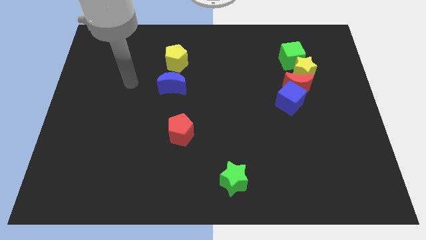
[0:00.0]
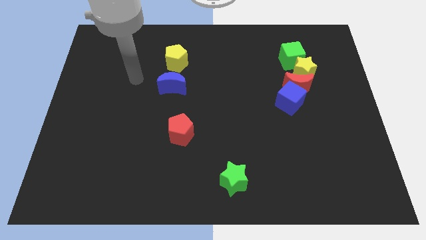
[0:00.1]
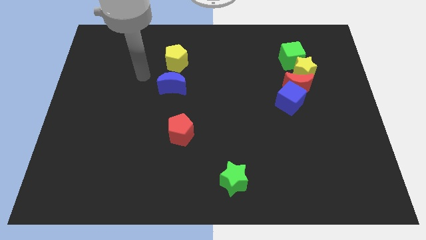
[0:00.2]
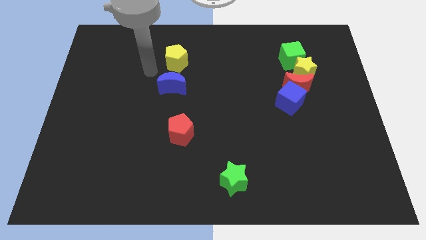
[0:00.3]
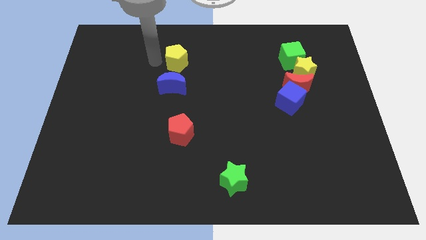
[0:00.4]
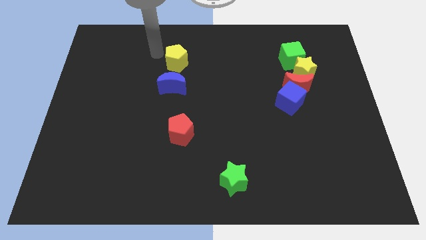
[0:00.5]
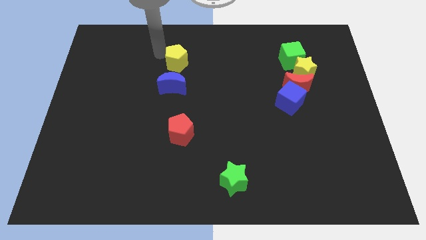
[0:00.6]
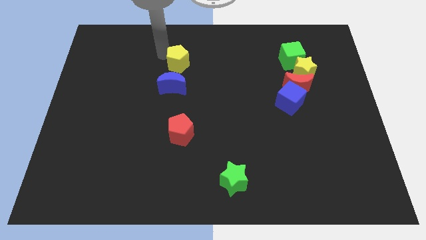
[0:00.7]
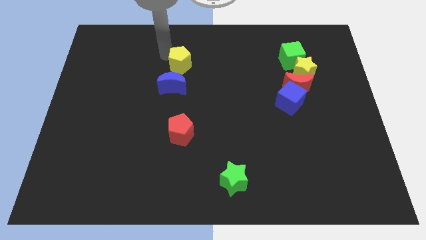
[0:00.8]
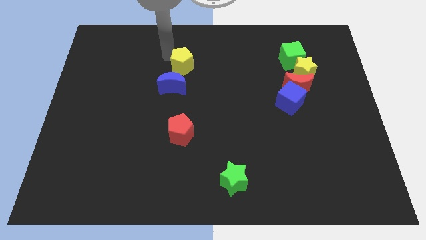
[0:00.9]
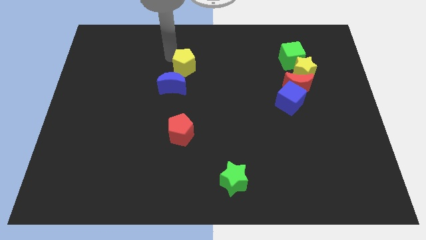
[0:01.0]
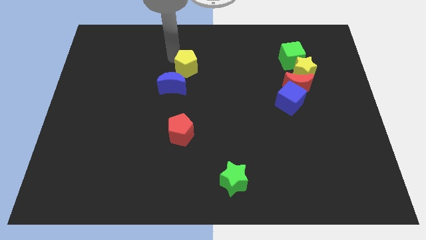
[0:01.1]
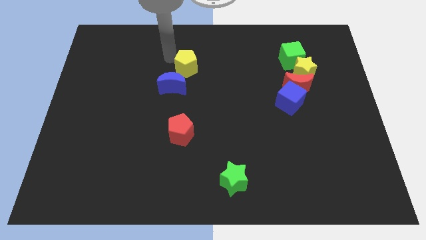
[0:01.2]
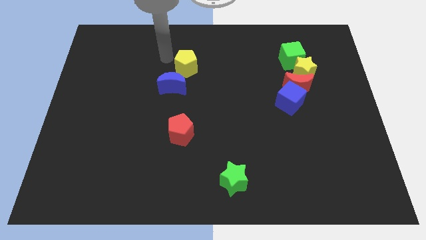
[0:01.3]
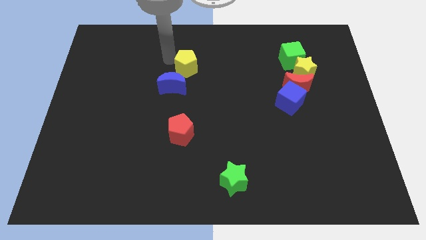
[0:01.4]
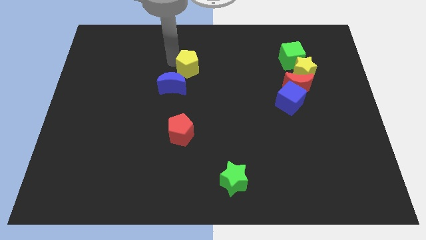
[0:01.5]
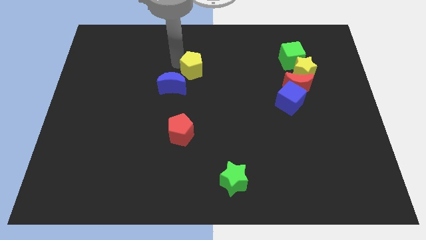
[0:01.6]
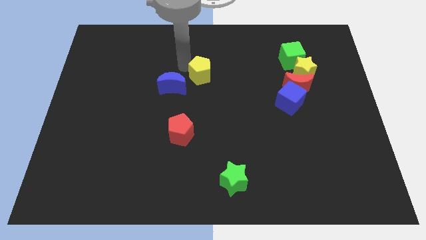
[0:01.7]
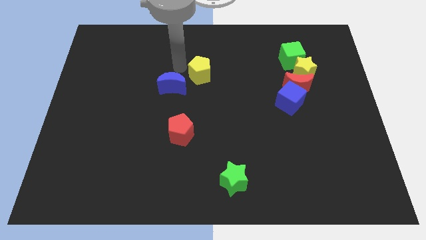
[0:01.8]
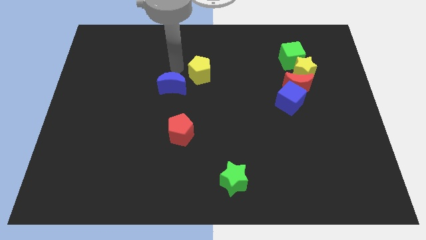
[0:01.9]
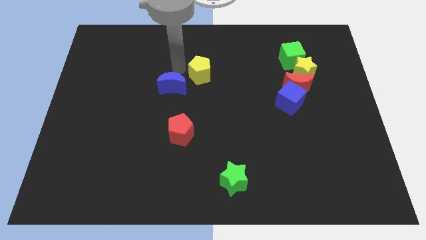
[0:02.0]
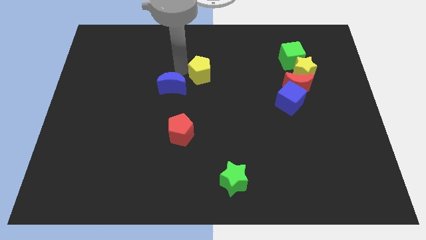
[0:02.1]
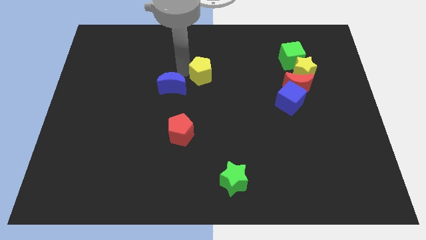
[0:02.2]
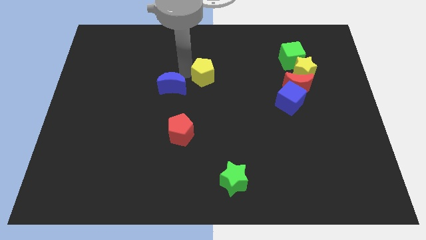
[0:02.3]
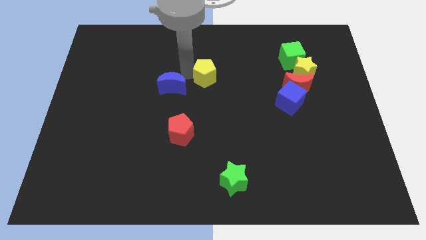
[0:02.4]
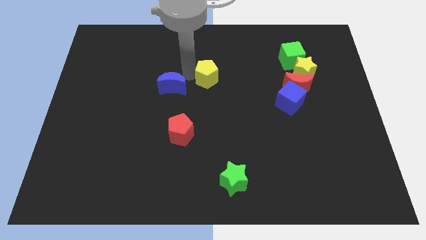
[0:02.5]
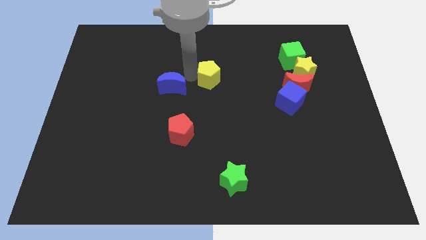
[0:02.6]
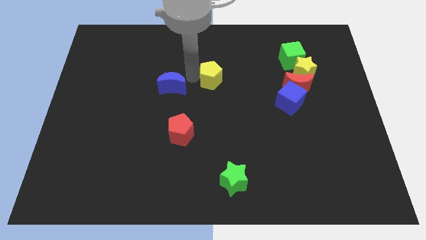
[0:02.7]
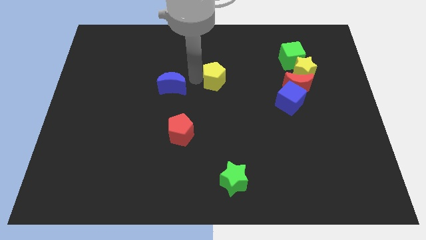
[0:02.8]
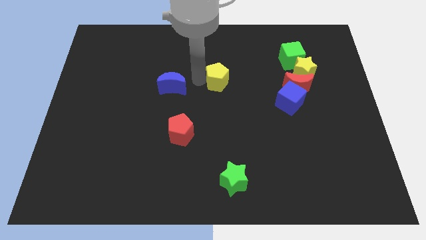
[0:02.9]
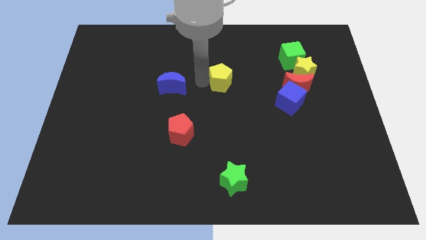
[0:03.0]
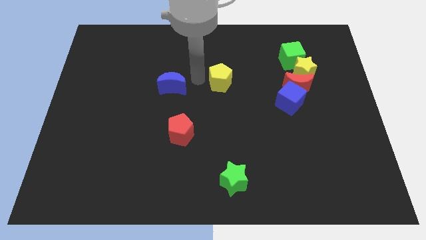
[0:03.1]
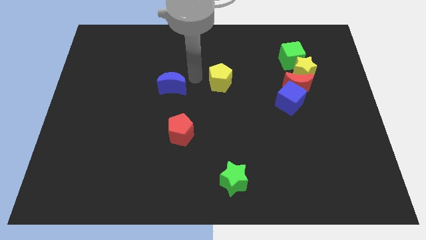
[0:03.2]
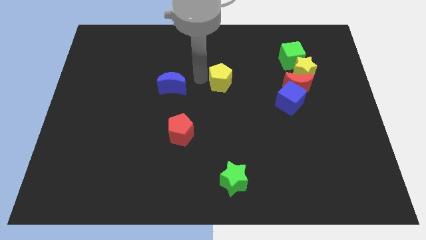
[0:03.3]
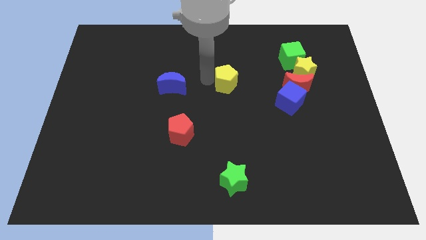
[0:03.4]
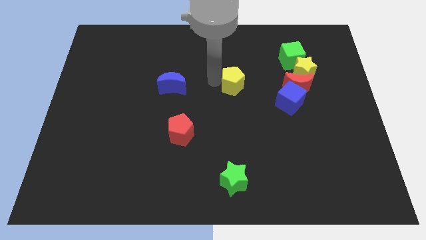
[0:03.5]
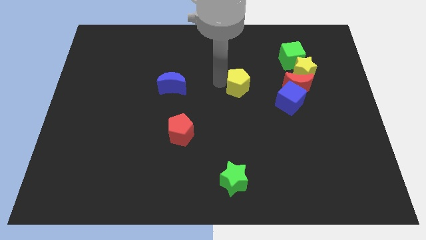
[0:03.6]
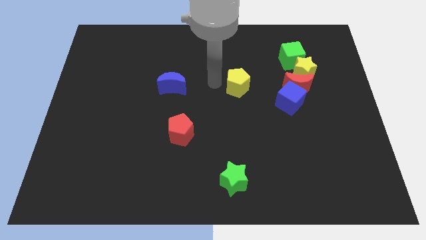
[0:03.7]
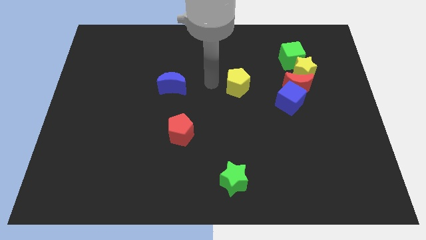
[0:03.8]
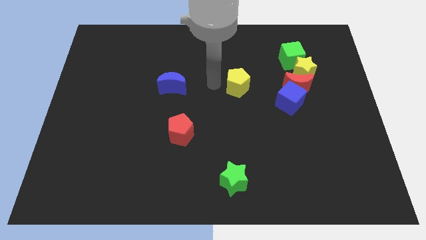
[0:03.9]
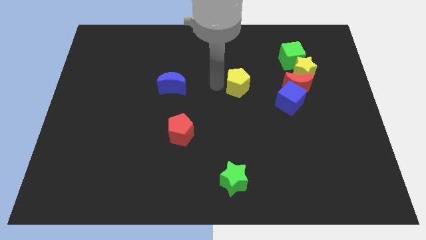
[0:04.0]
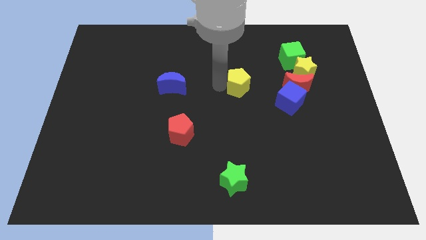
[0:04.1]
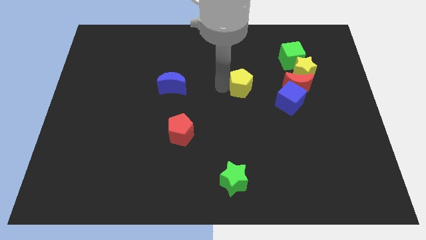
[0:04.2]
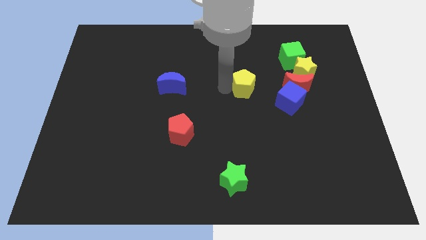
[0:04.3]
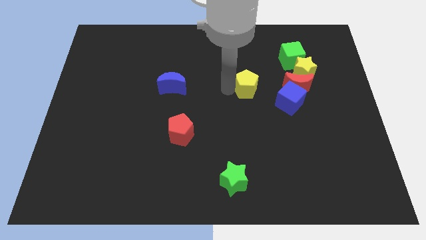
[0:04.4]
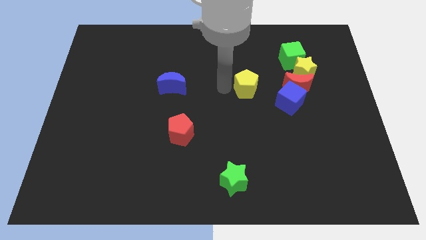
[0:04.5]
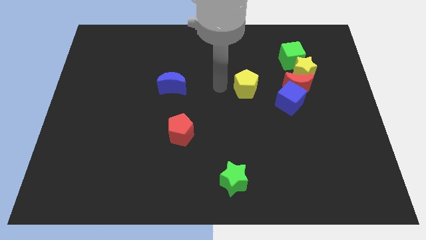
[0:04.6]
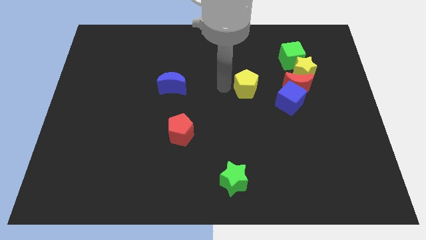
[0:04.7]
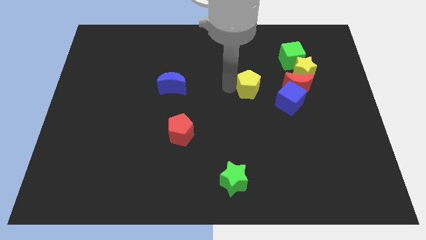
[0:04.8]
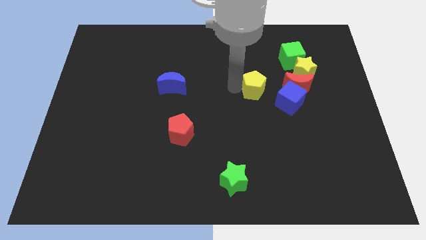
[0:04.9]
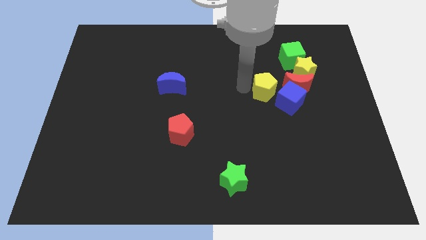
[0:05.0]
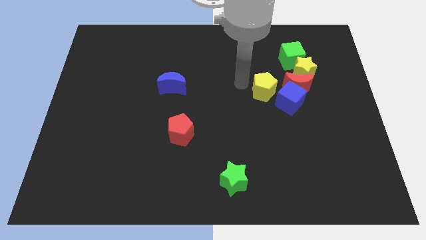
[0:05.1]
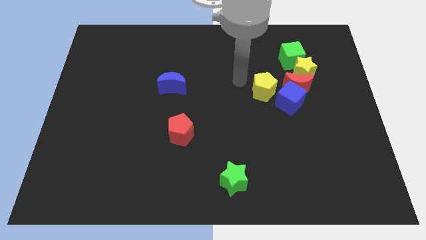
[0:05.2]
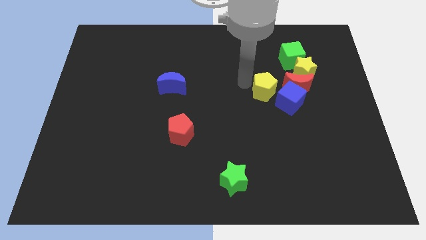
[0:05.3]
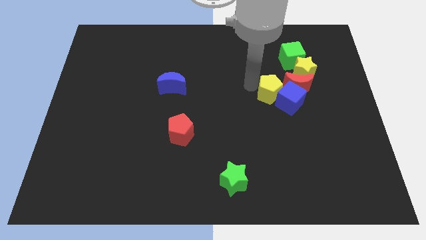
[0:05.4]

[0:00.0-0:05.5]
push the yellow pentagon next to the blue cube

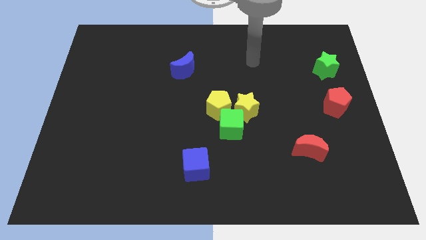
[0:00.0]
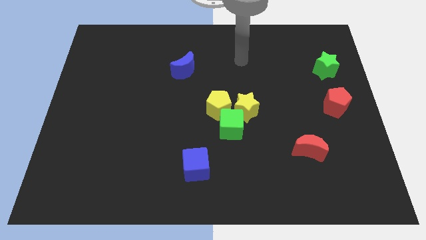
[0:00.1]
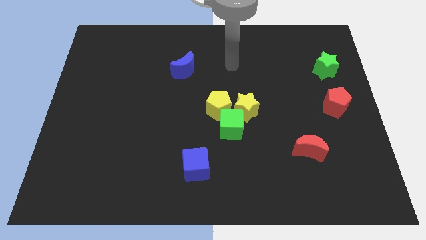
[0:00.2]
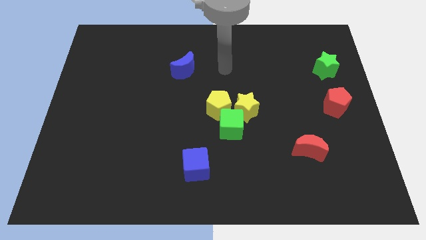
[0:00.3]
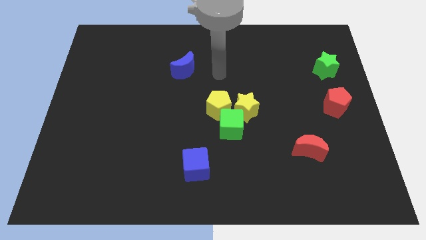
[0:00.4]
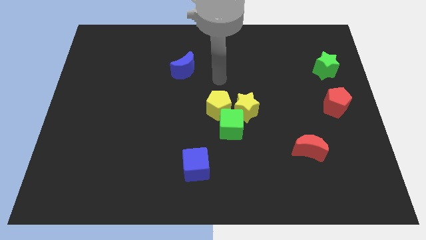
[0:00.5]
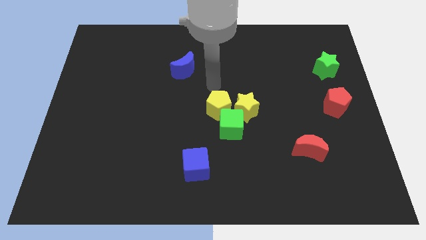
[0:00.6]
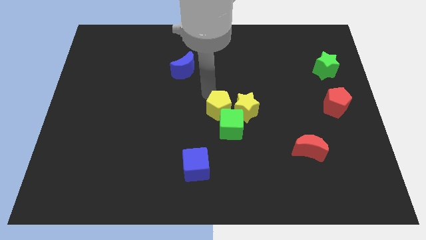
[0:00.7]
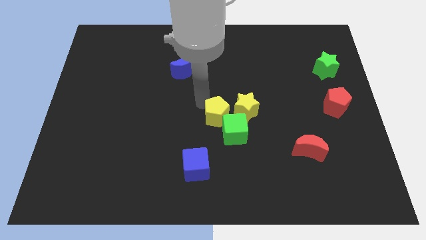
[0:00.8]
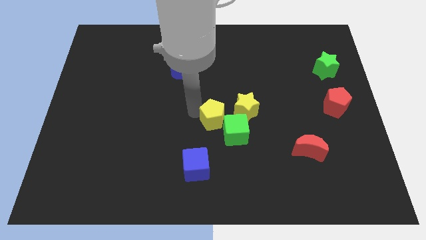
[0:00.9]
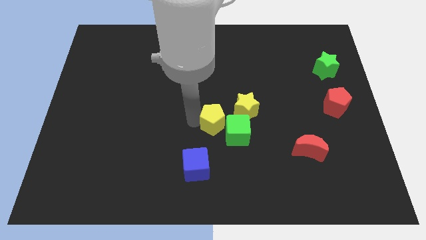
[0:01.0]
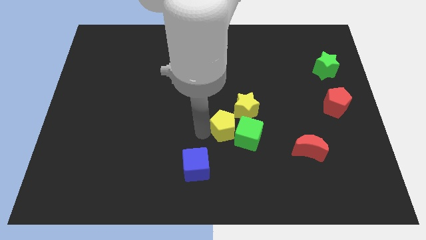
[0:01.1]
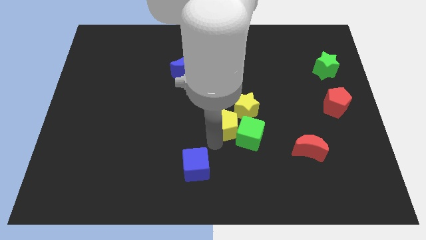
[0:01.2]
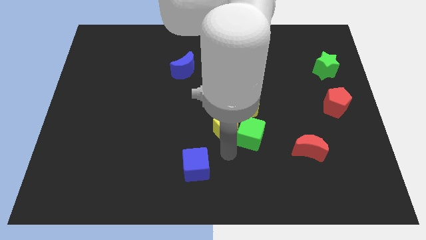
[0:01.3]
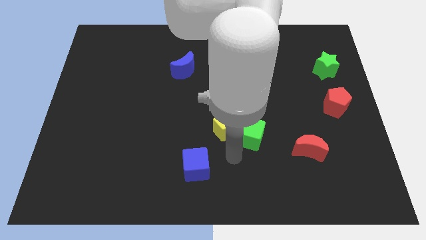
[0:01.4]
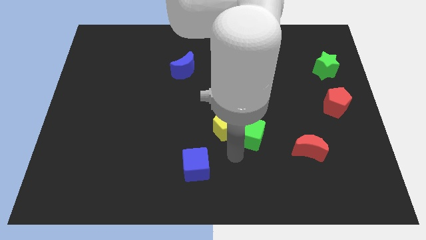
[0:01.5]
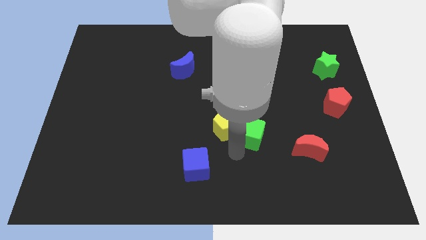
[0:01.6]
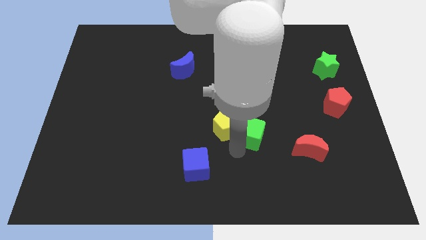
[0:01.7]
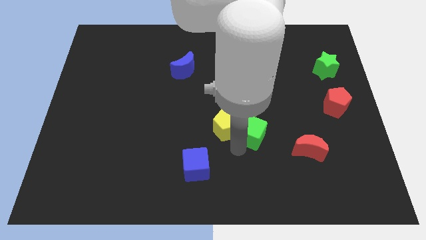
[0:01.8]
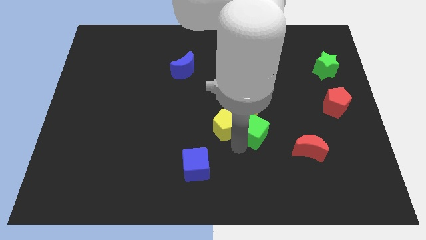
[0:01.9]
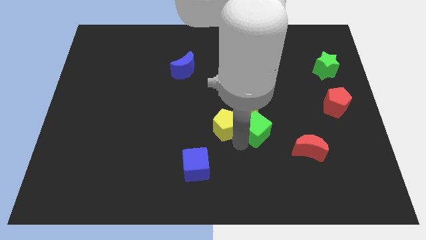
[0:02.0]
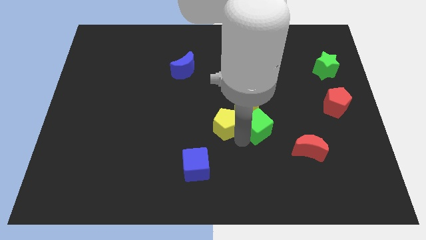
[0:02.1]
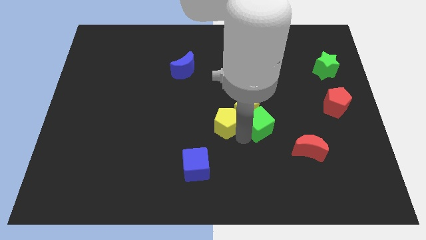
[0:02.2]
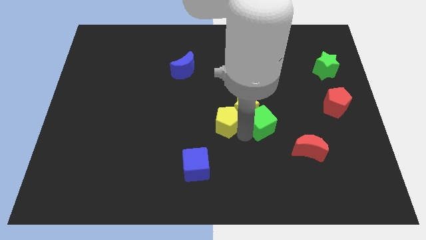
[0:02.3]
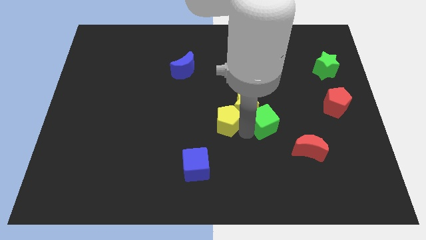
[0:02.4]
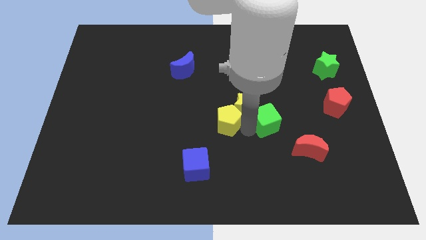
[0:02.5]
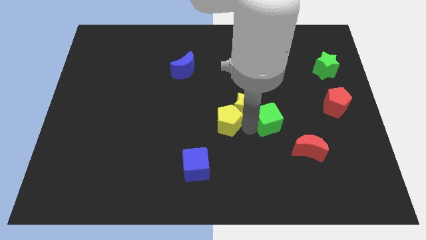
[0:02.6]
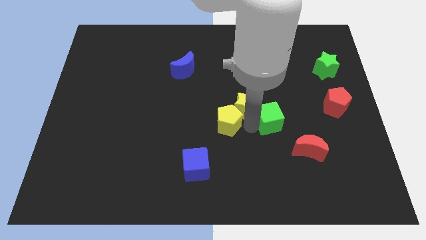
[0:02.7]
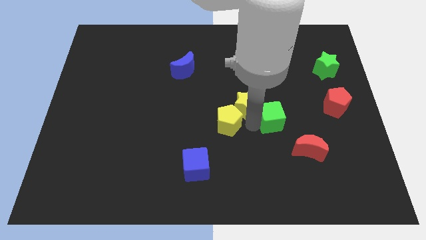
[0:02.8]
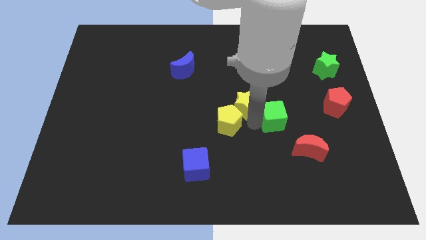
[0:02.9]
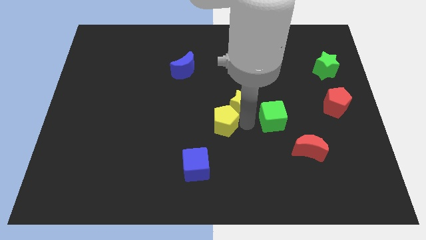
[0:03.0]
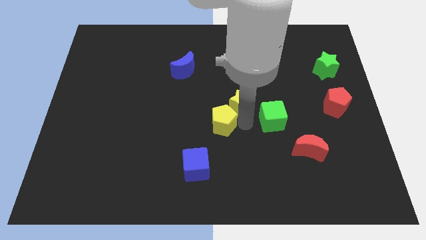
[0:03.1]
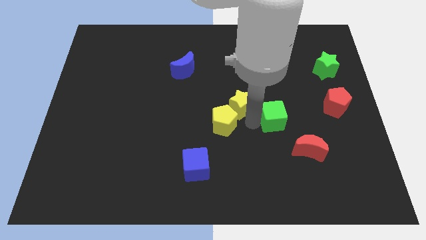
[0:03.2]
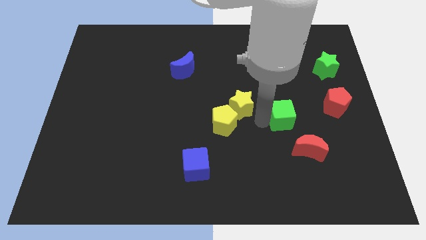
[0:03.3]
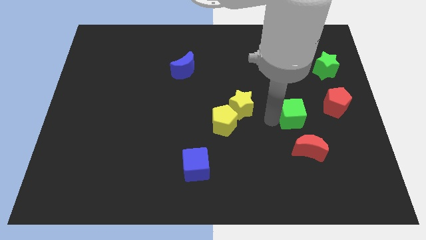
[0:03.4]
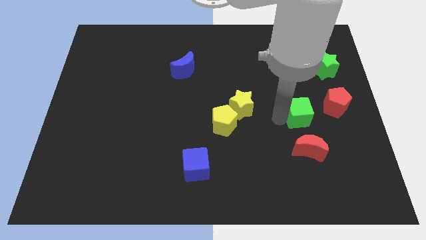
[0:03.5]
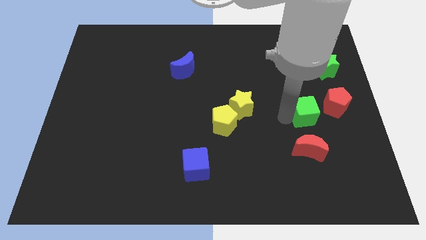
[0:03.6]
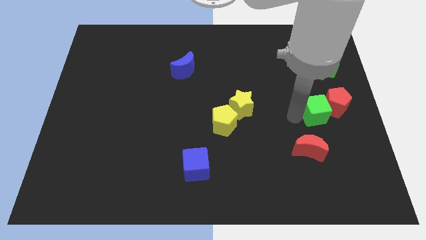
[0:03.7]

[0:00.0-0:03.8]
move the green cube close to the red pentagon
